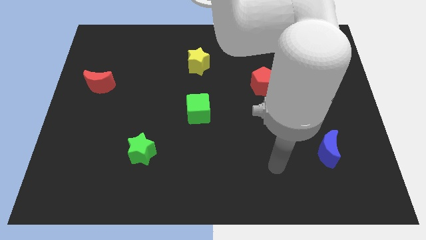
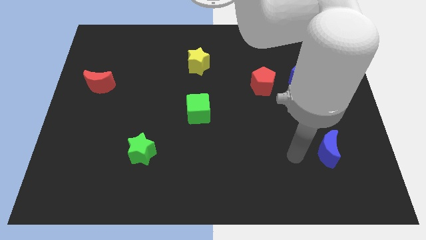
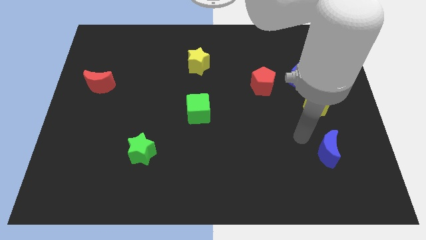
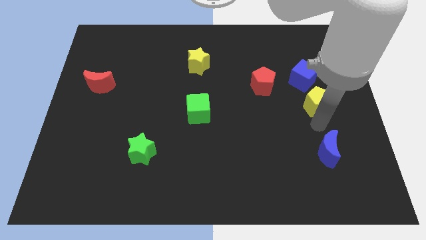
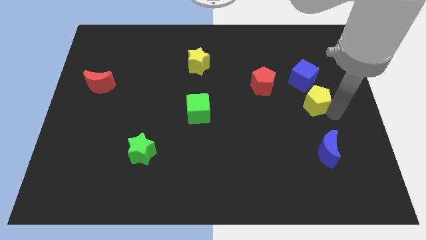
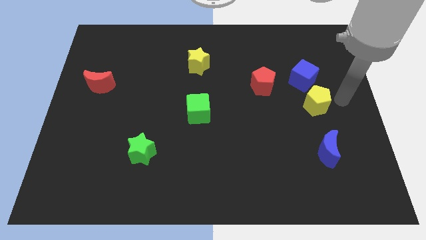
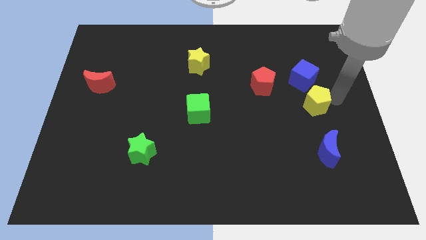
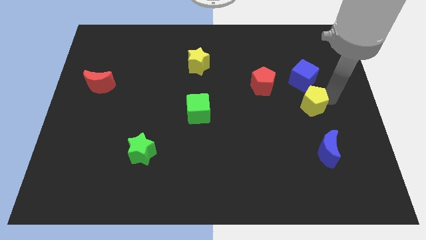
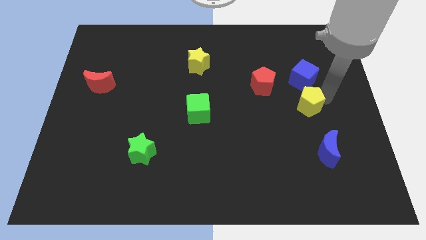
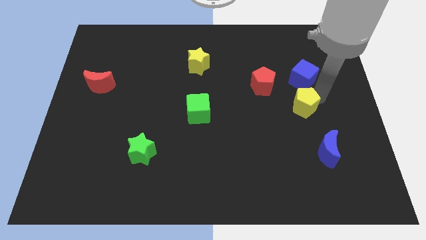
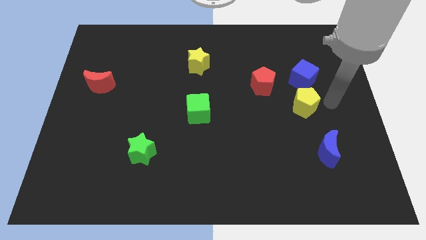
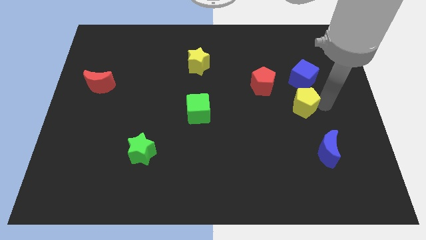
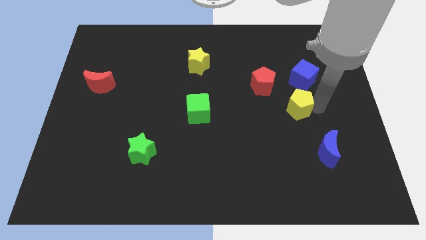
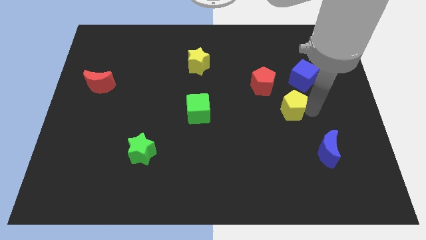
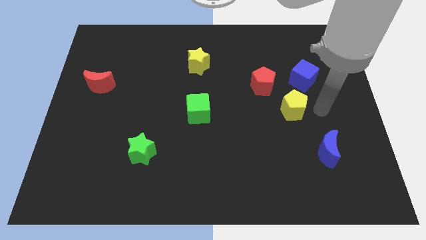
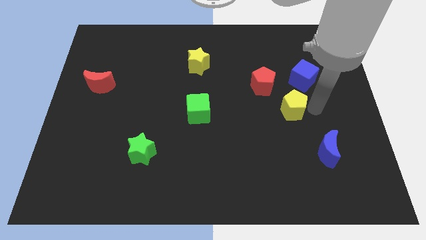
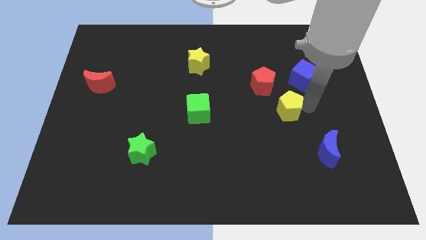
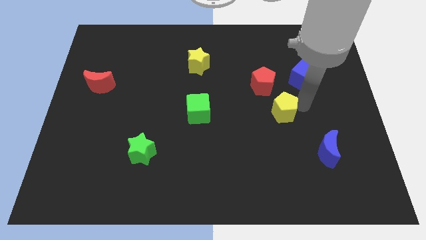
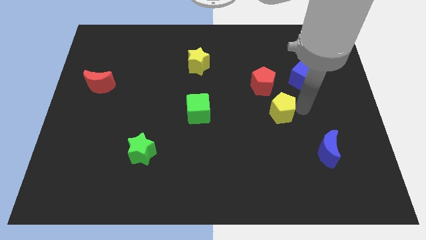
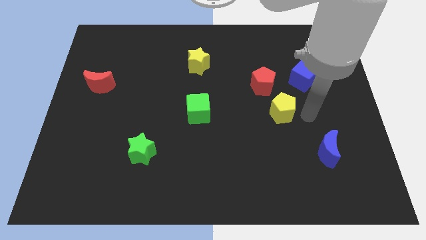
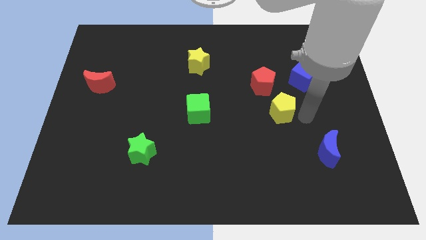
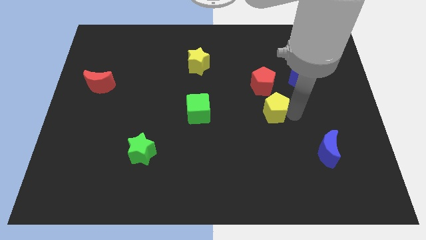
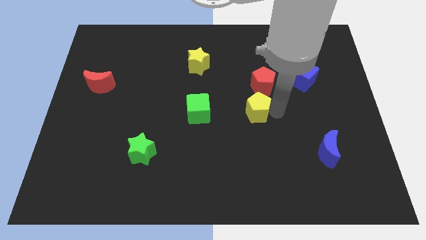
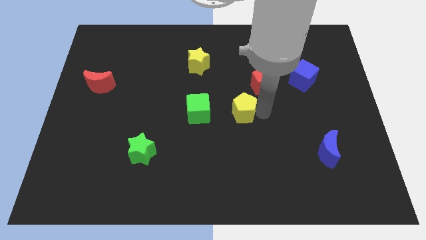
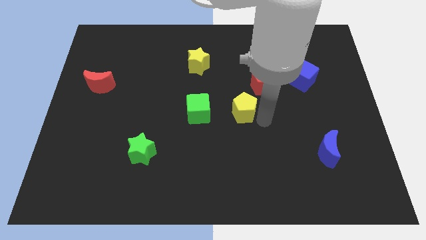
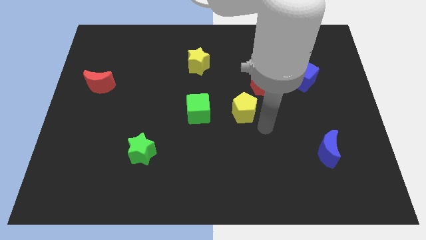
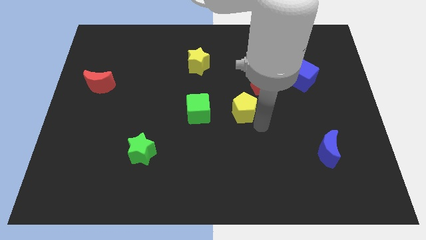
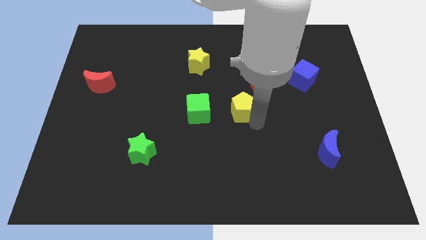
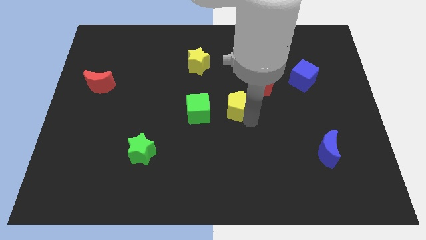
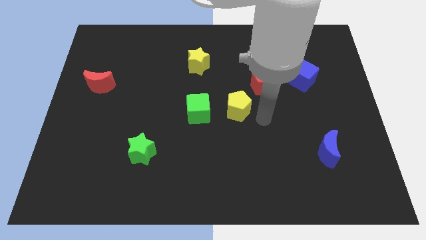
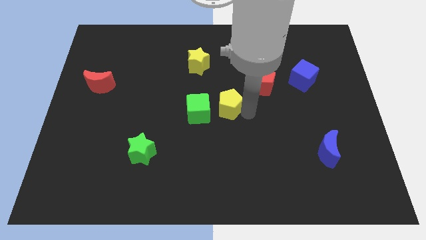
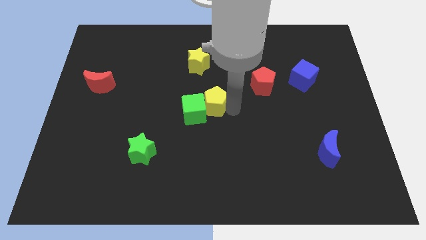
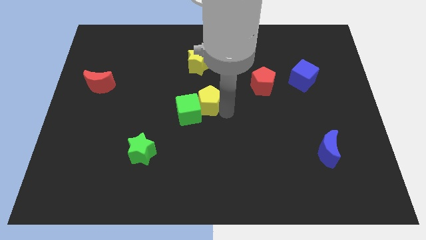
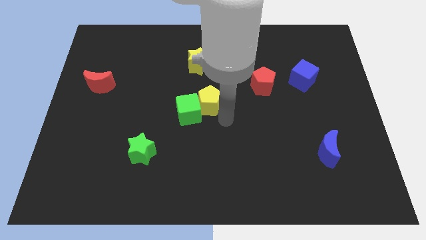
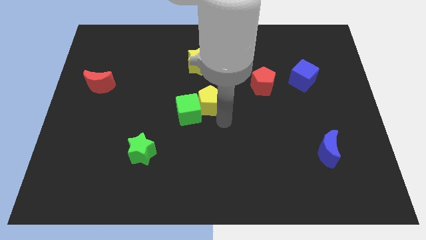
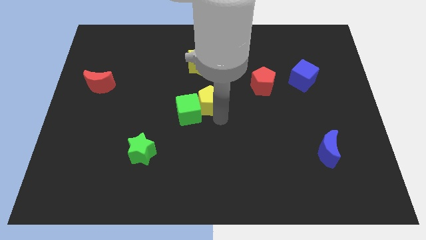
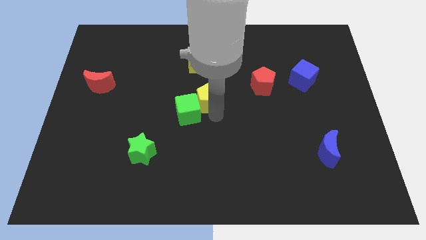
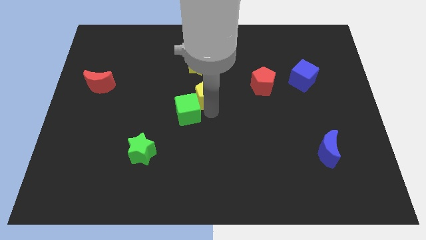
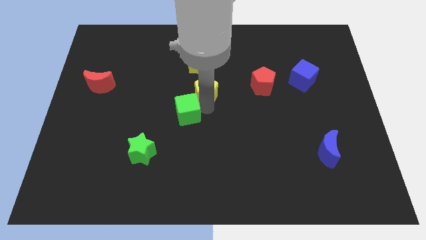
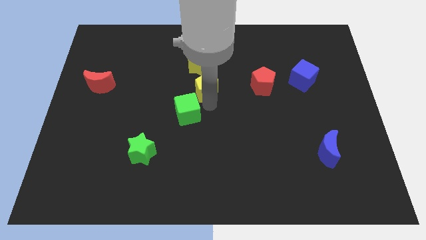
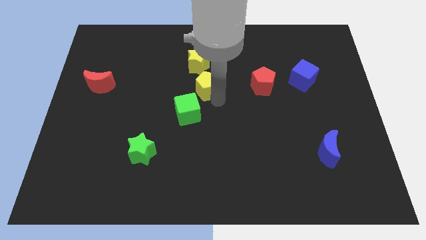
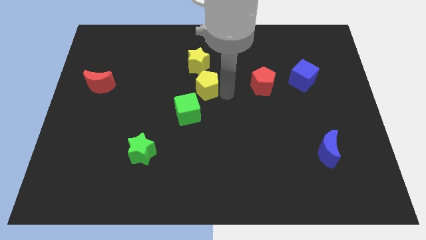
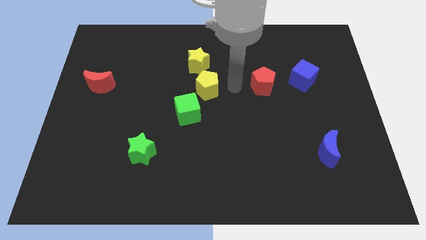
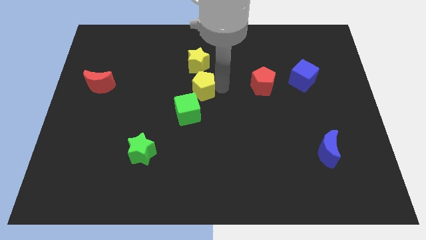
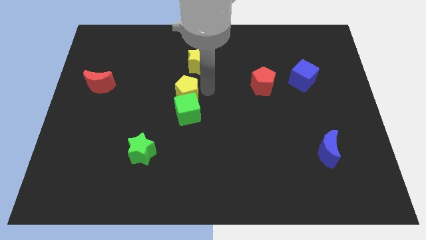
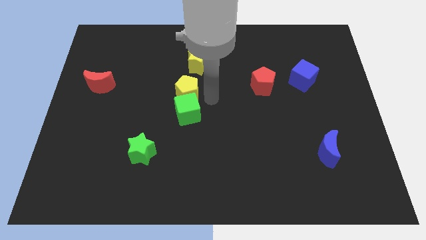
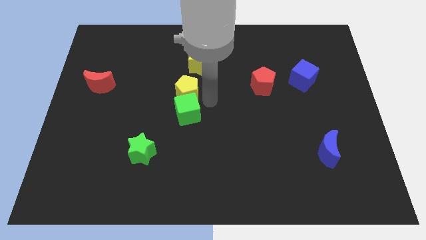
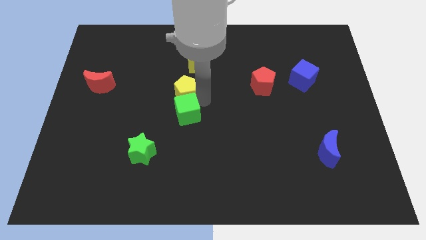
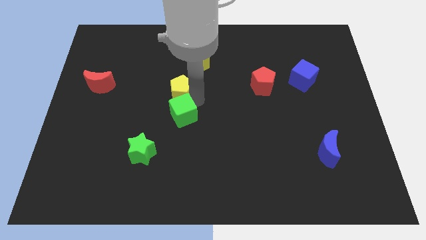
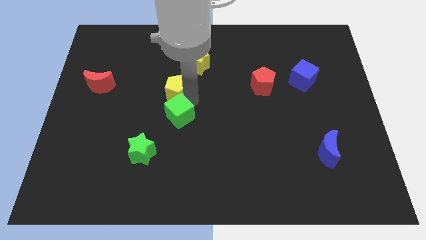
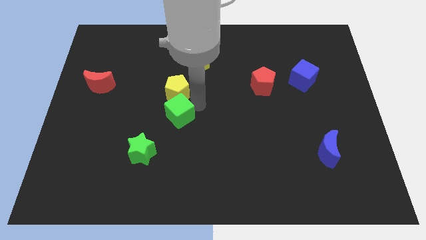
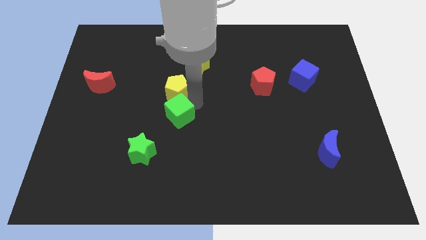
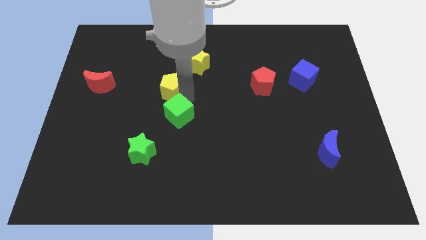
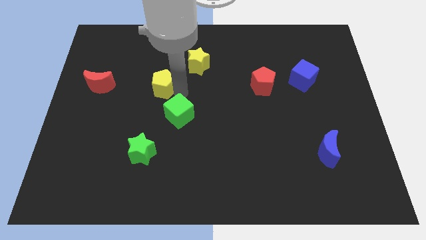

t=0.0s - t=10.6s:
move the yellow pentagon to the right of the red moon

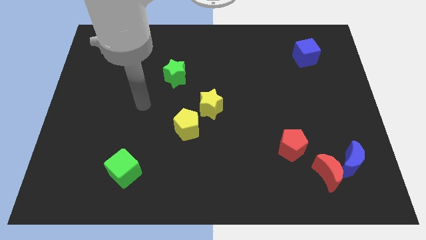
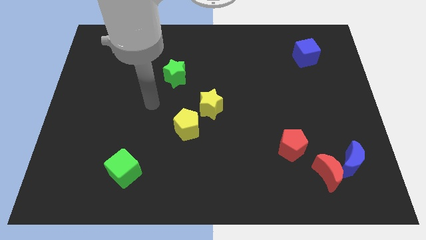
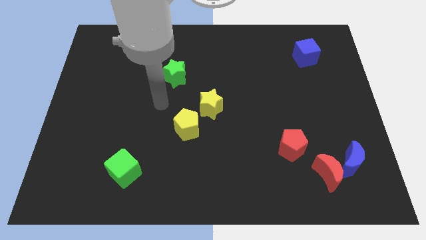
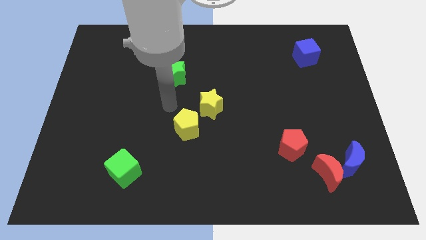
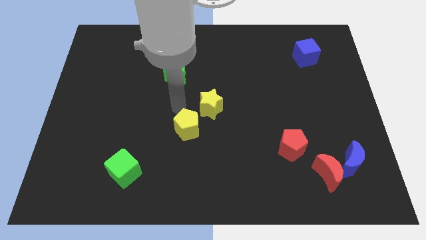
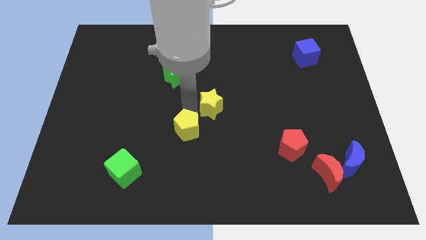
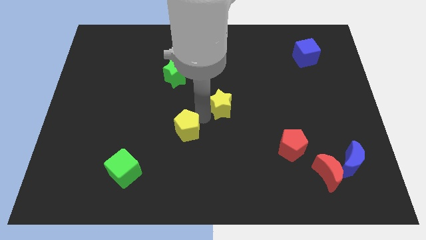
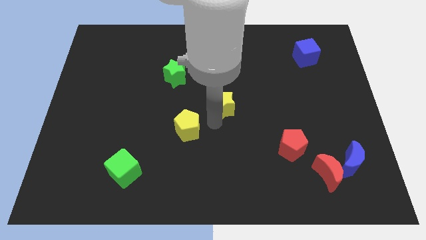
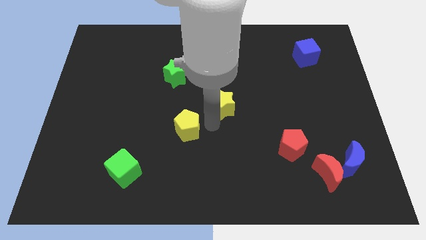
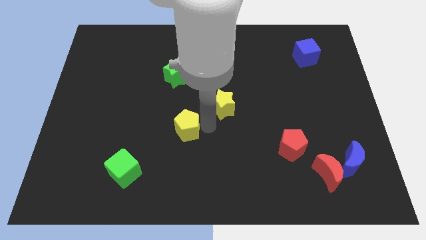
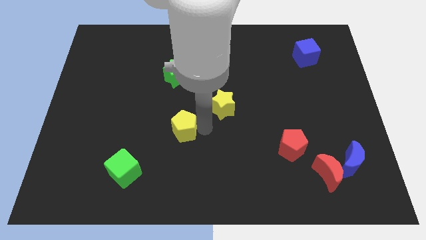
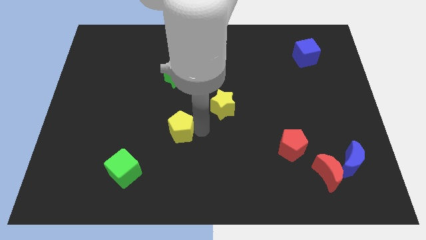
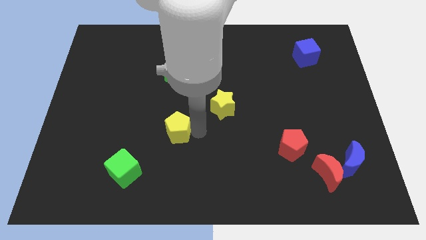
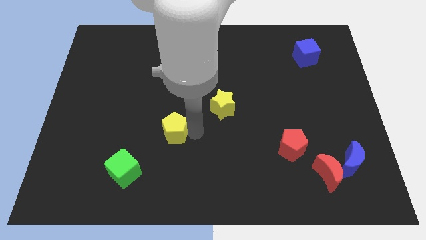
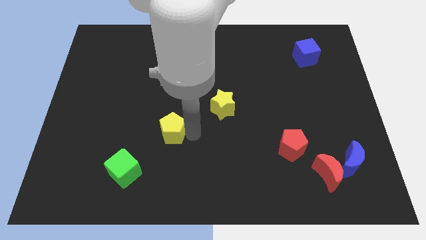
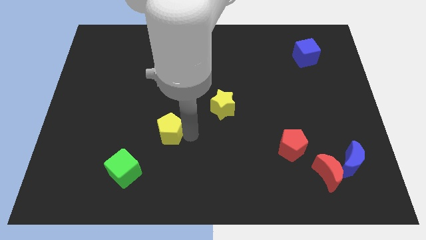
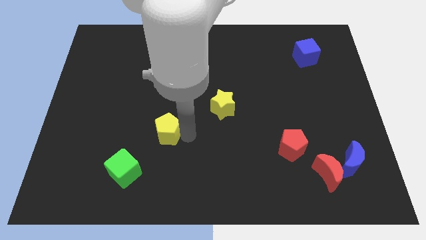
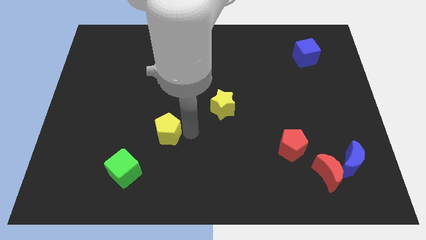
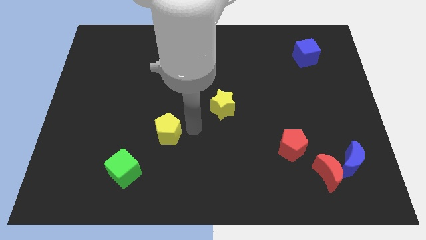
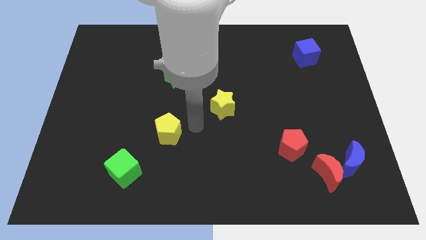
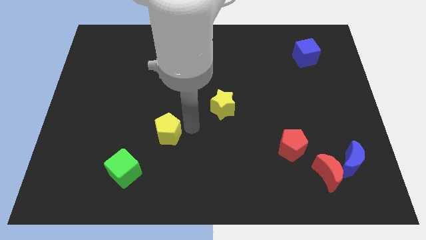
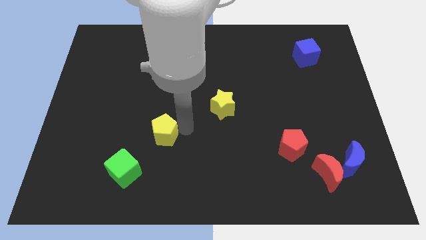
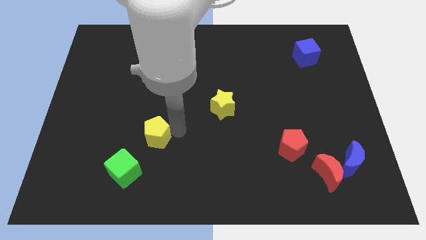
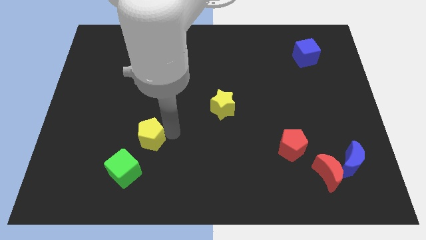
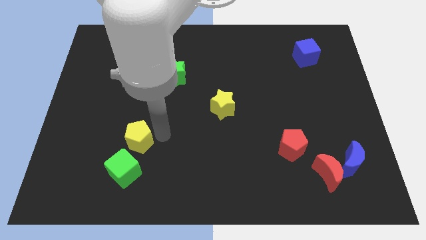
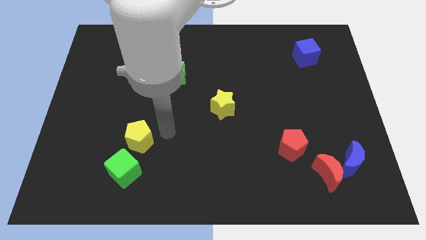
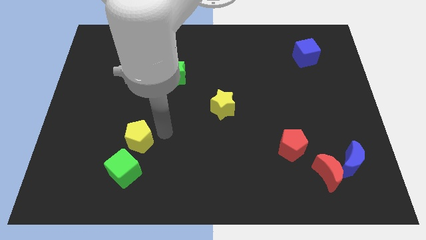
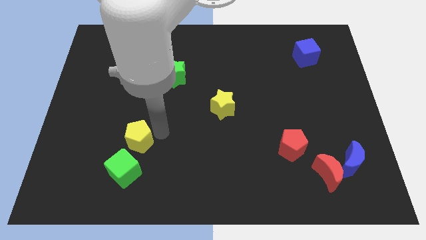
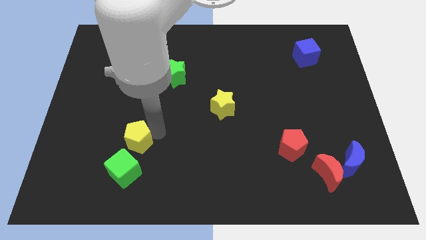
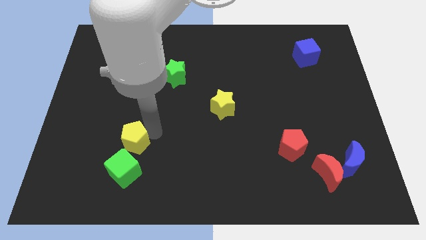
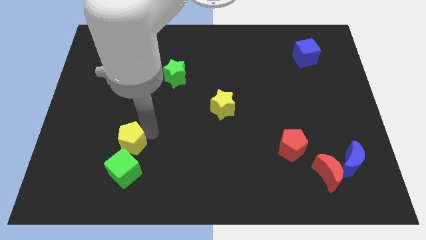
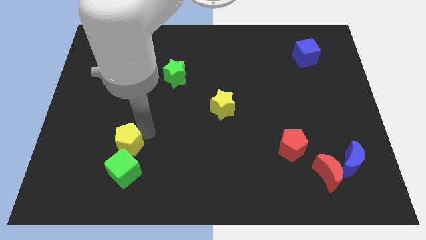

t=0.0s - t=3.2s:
slide the yellow pentagon diagonally up and to the left of the green cube
